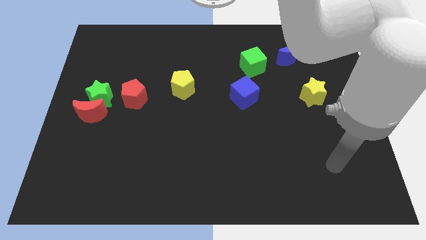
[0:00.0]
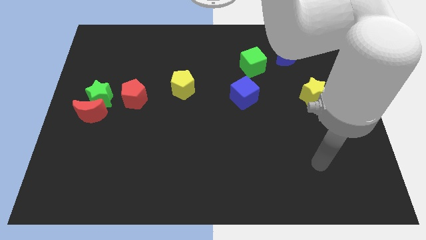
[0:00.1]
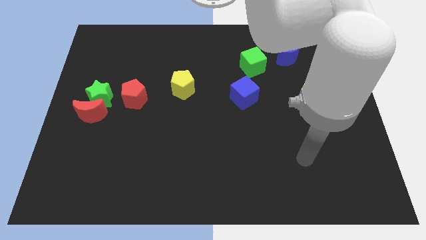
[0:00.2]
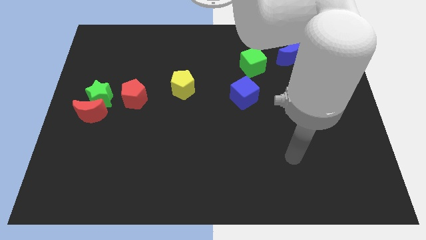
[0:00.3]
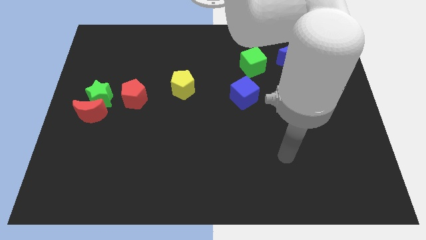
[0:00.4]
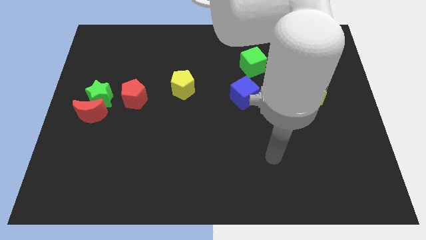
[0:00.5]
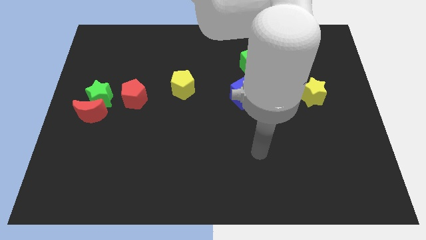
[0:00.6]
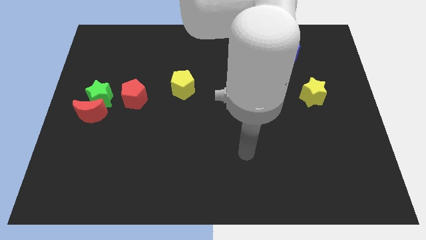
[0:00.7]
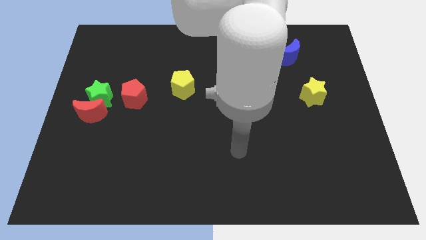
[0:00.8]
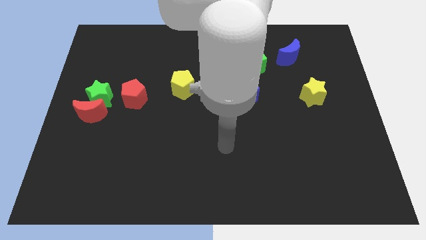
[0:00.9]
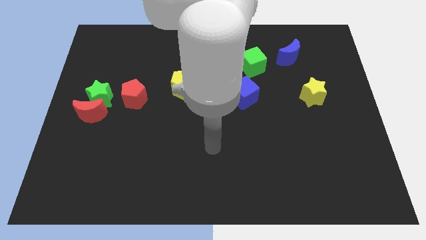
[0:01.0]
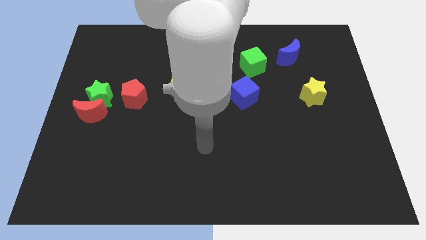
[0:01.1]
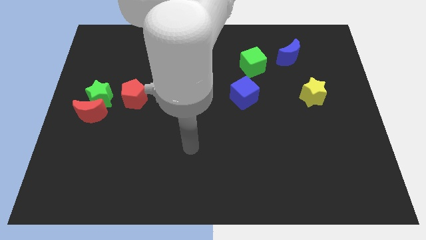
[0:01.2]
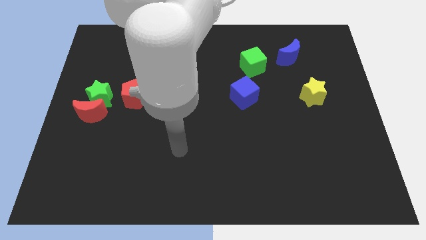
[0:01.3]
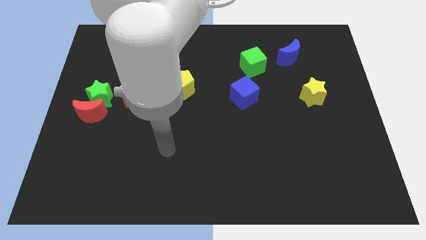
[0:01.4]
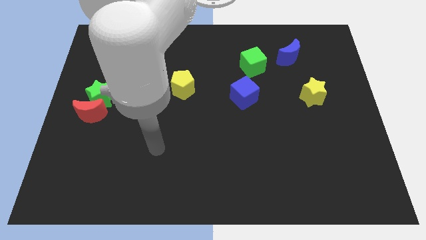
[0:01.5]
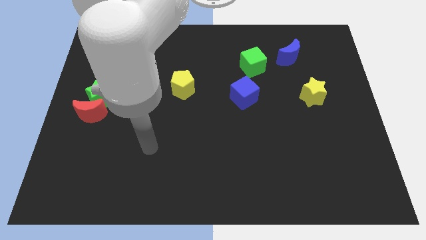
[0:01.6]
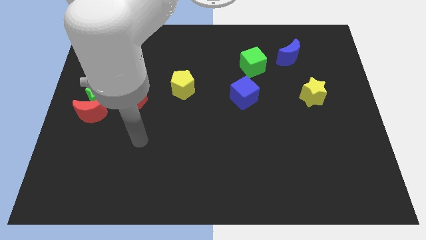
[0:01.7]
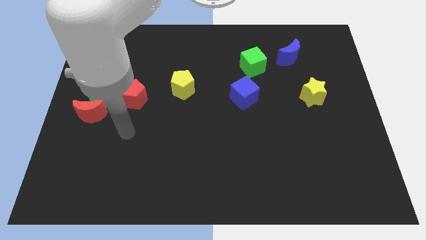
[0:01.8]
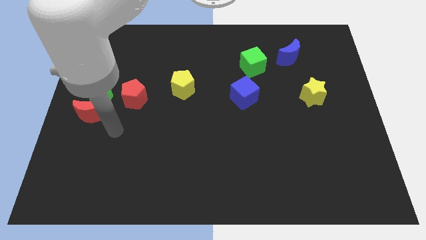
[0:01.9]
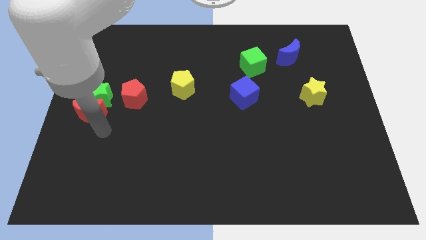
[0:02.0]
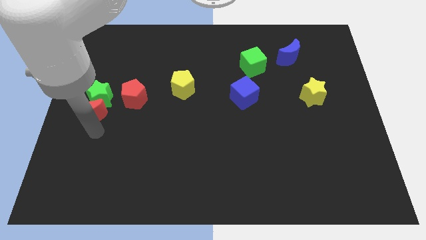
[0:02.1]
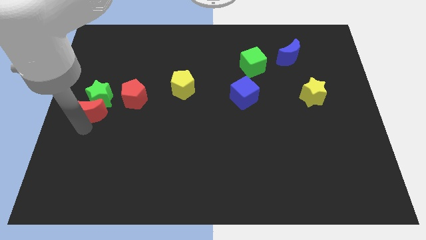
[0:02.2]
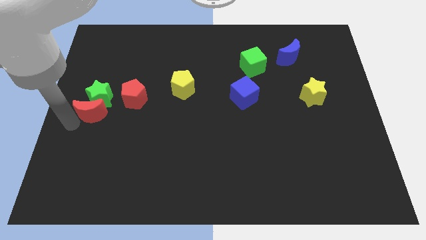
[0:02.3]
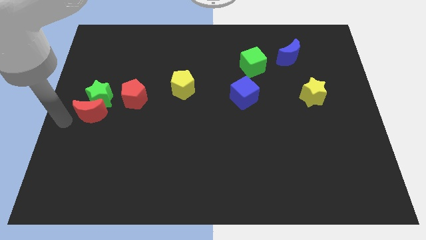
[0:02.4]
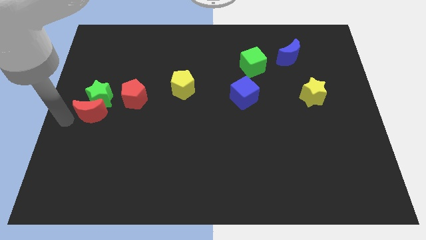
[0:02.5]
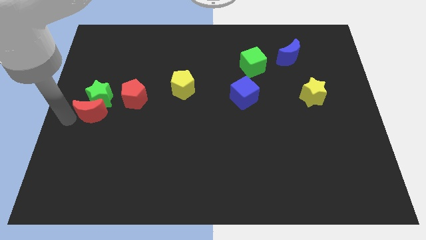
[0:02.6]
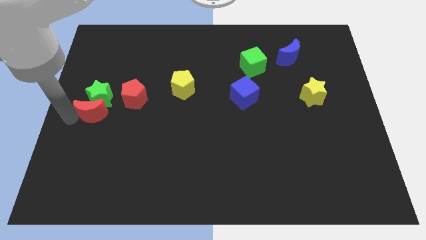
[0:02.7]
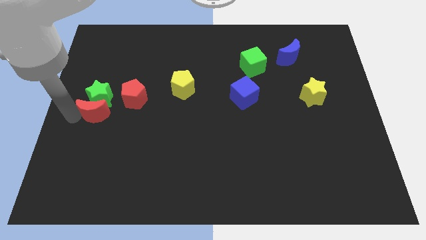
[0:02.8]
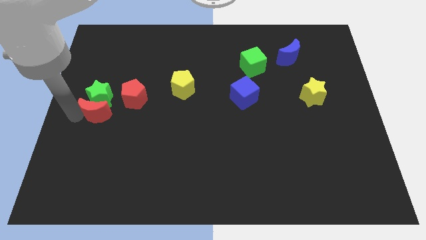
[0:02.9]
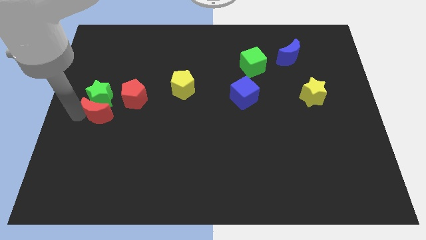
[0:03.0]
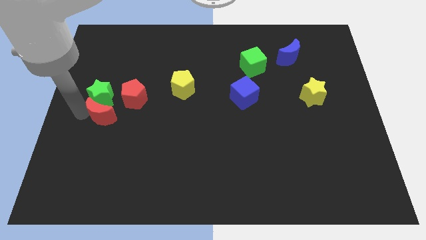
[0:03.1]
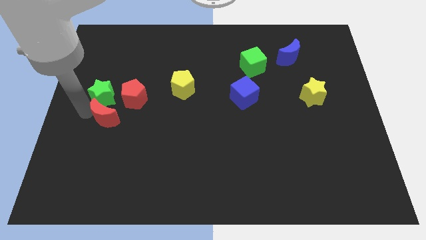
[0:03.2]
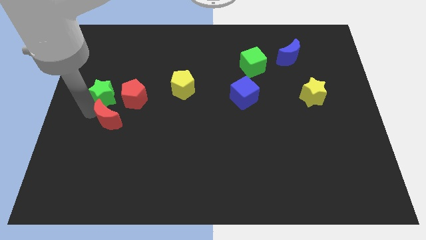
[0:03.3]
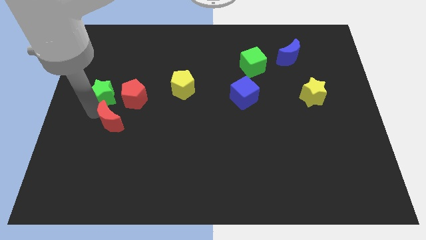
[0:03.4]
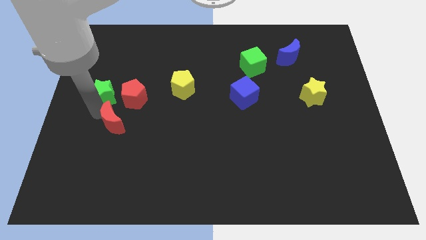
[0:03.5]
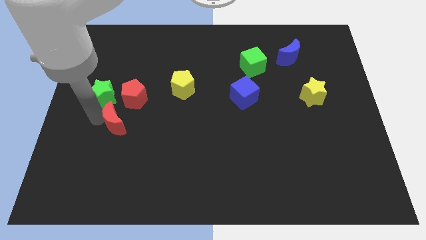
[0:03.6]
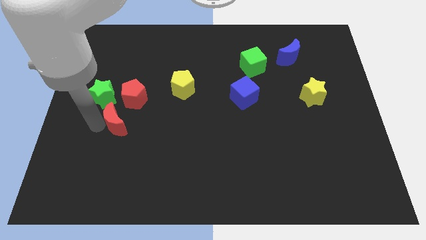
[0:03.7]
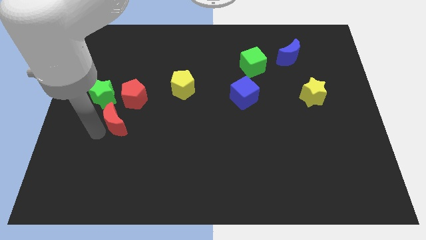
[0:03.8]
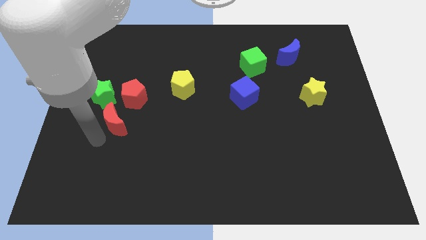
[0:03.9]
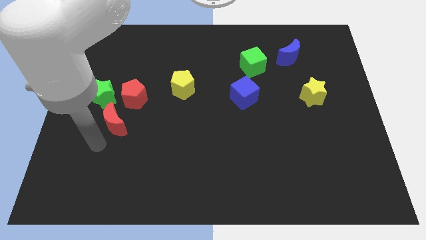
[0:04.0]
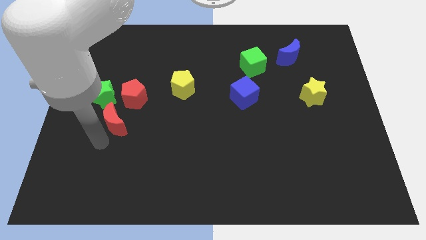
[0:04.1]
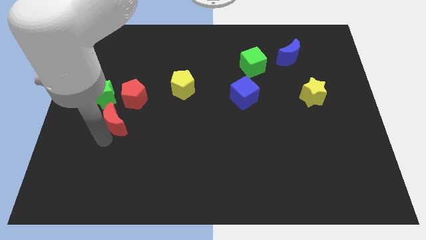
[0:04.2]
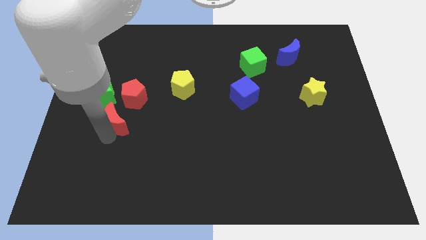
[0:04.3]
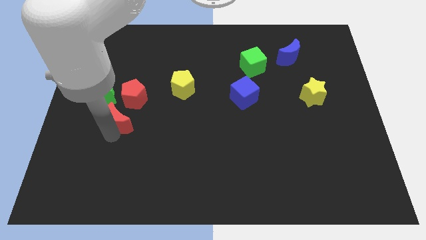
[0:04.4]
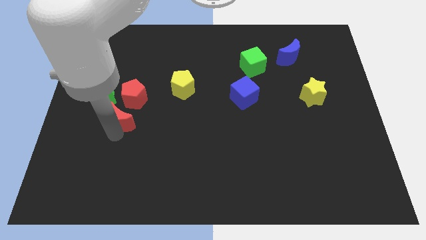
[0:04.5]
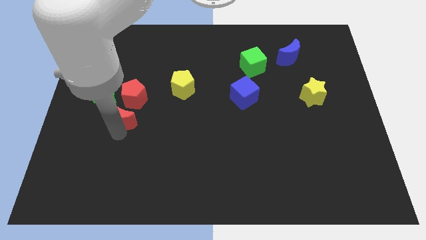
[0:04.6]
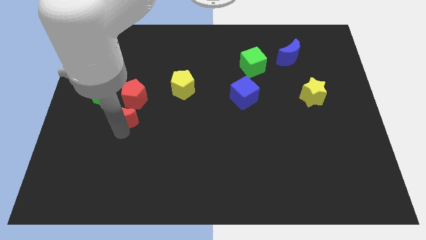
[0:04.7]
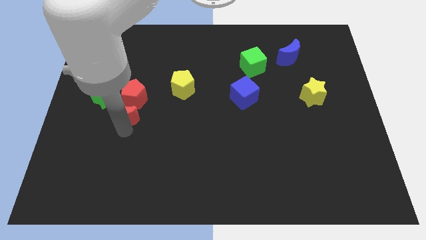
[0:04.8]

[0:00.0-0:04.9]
put the red moon towards the red pentagon

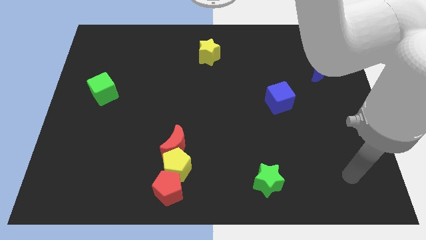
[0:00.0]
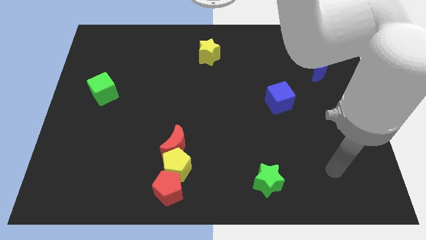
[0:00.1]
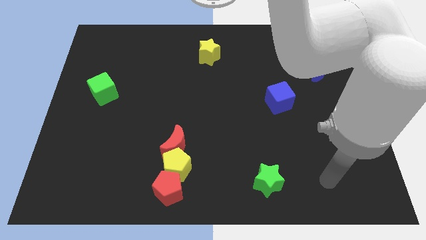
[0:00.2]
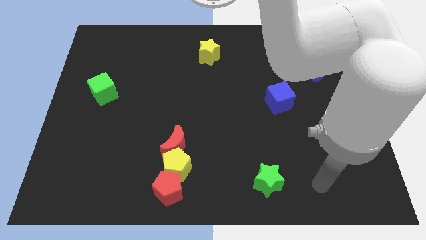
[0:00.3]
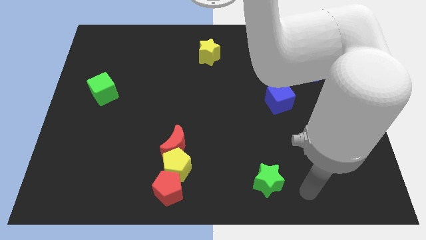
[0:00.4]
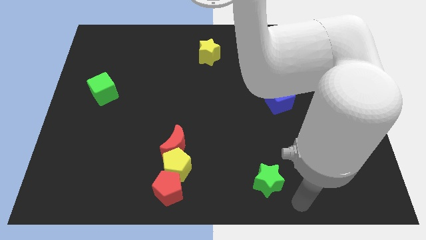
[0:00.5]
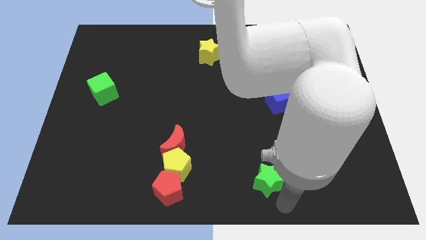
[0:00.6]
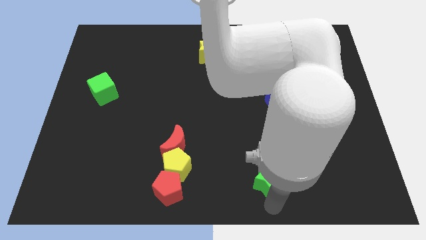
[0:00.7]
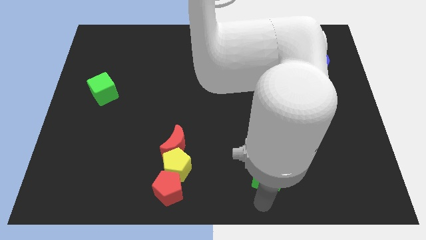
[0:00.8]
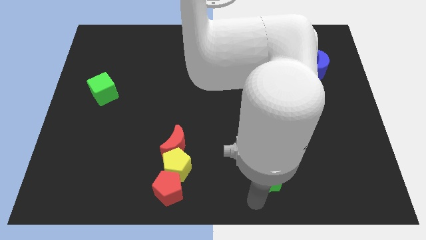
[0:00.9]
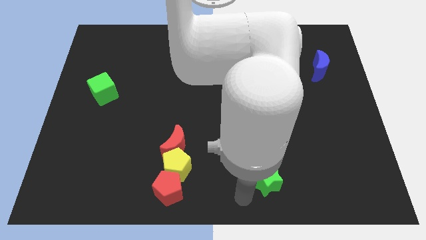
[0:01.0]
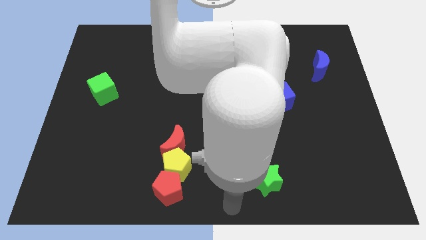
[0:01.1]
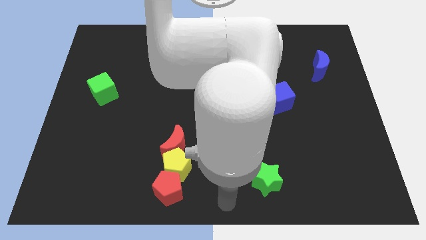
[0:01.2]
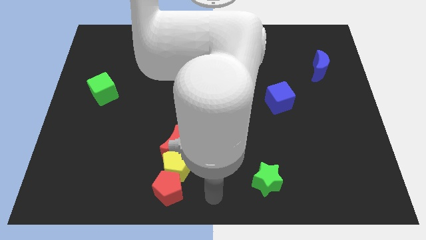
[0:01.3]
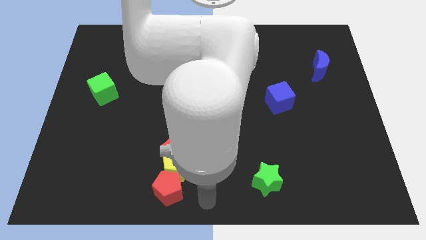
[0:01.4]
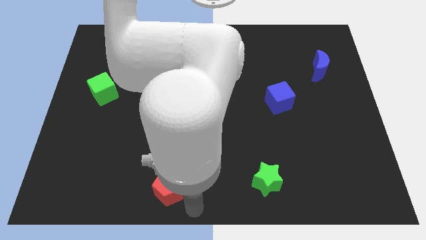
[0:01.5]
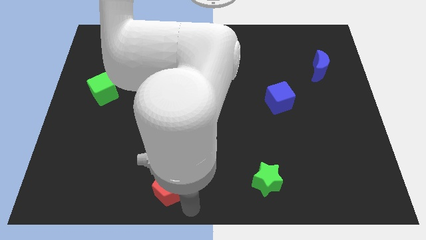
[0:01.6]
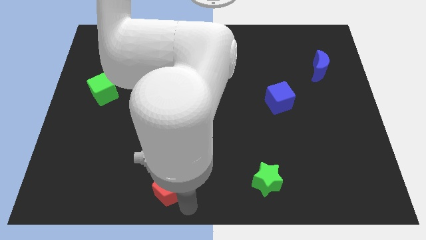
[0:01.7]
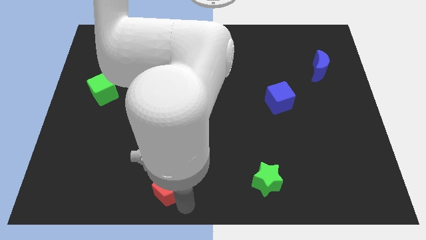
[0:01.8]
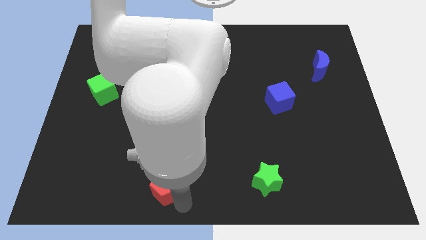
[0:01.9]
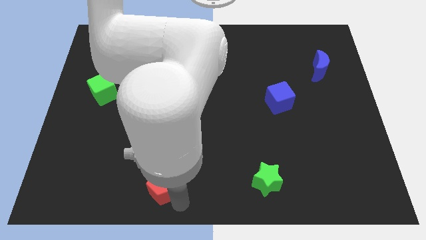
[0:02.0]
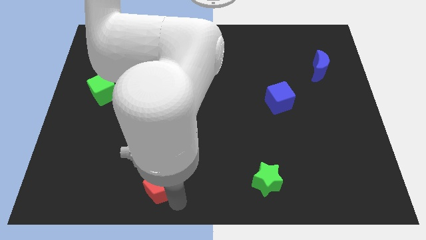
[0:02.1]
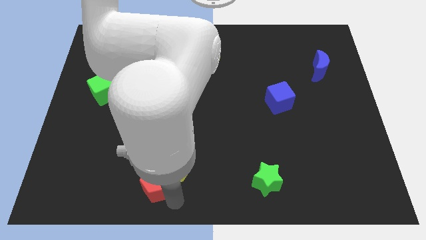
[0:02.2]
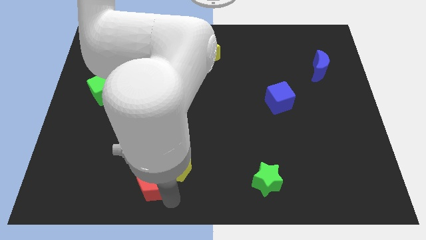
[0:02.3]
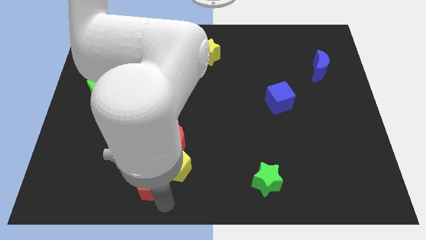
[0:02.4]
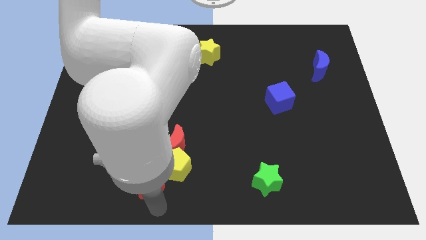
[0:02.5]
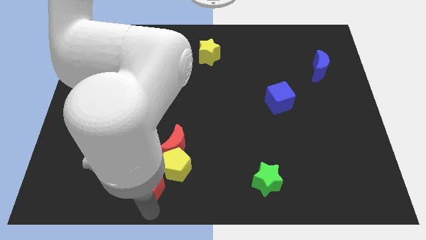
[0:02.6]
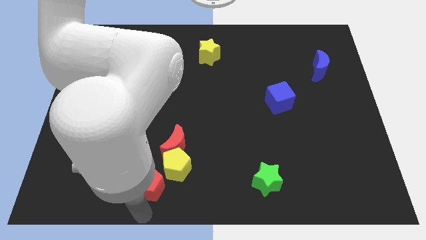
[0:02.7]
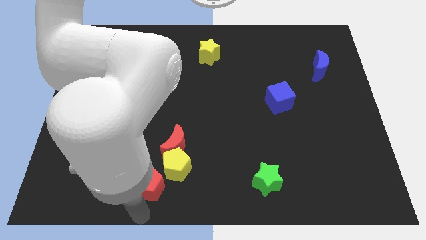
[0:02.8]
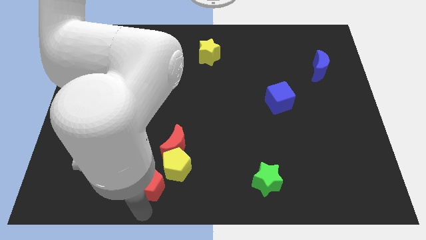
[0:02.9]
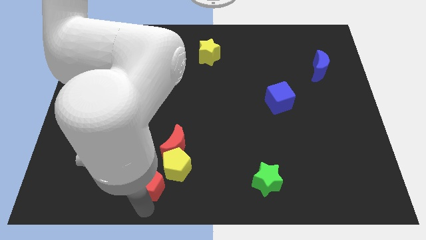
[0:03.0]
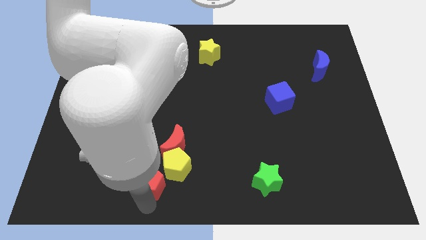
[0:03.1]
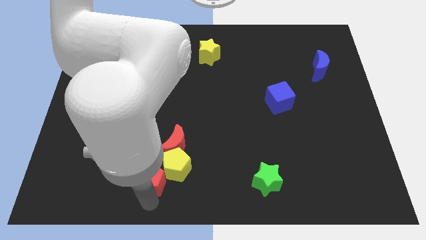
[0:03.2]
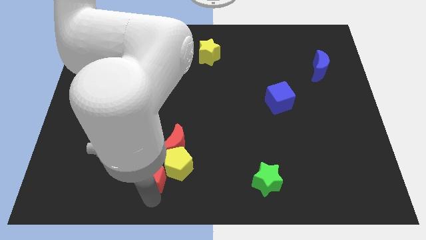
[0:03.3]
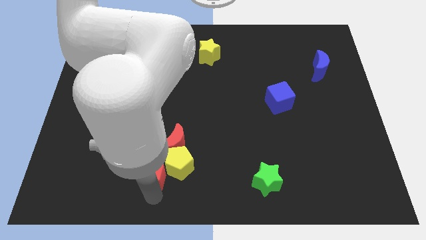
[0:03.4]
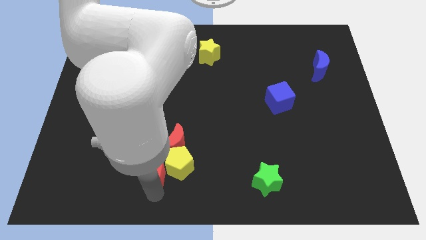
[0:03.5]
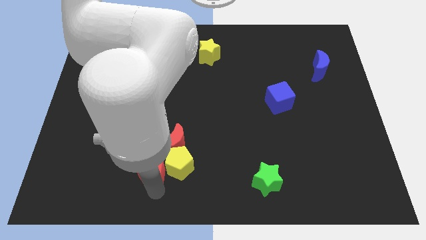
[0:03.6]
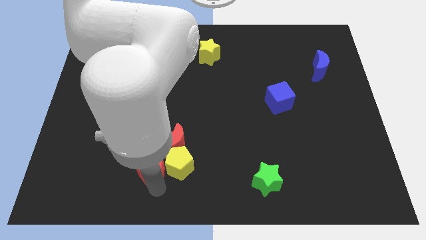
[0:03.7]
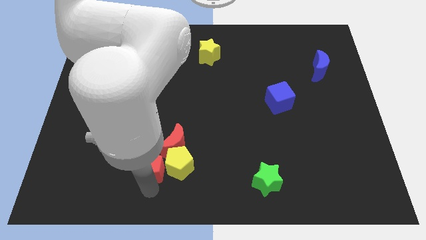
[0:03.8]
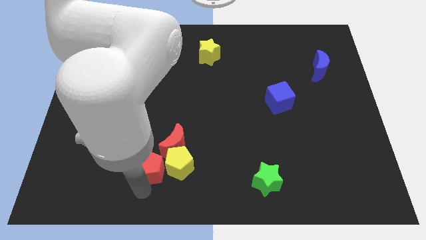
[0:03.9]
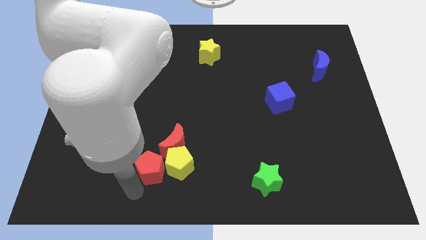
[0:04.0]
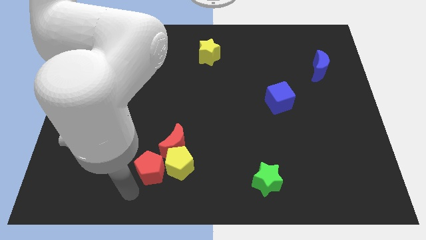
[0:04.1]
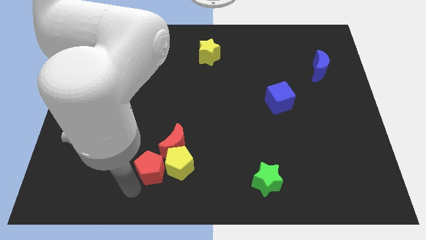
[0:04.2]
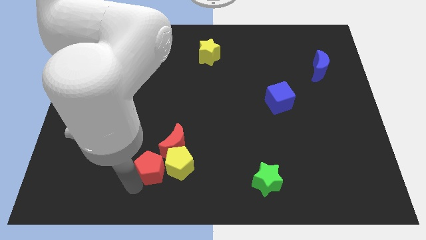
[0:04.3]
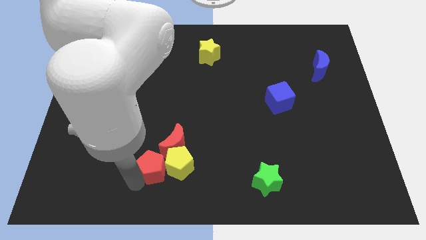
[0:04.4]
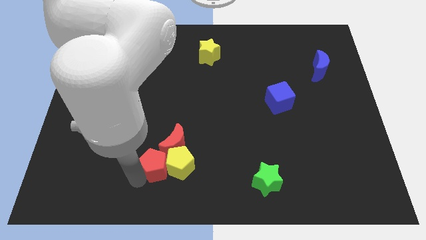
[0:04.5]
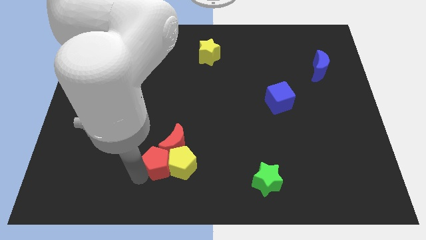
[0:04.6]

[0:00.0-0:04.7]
slide the red pentagon close to the red moon
